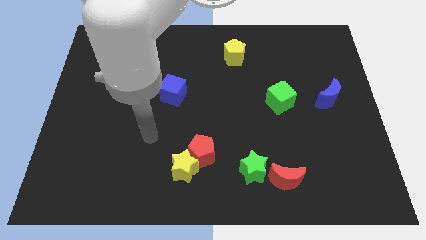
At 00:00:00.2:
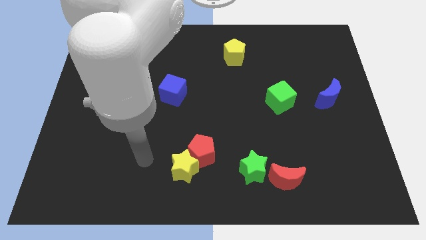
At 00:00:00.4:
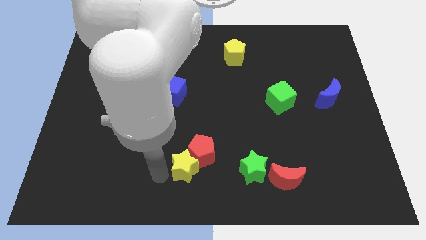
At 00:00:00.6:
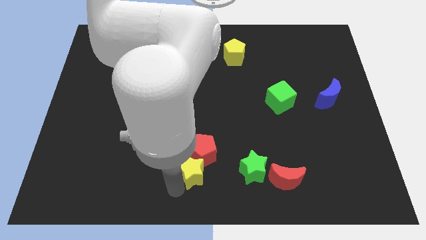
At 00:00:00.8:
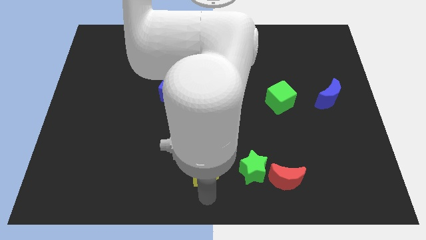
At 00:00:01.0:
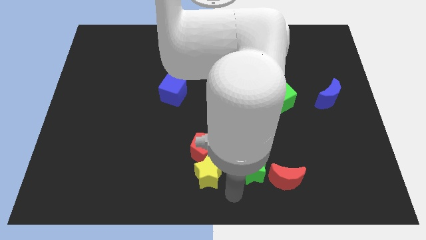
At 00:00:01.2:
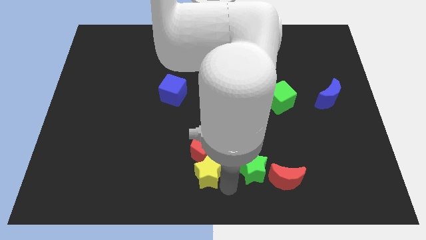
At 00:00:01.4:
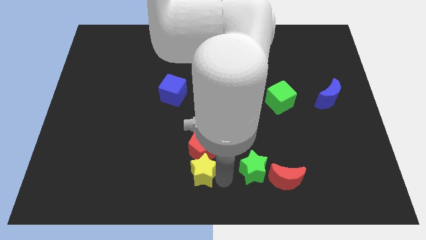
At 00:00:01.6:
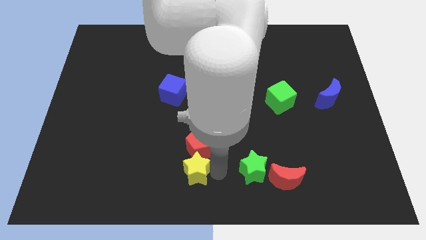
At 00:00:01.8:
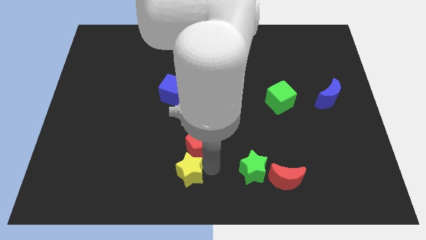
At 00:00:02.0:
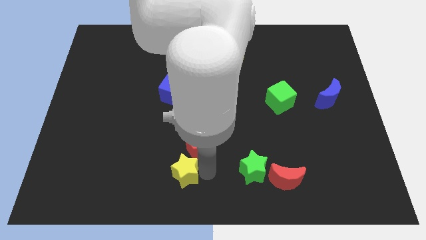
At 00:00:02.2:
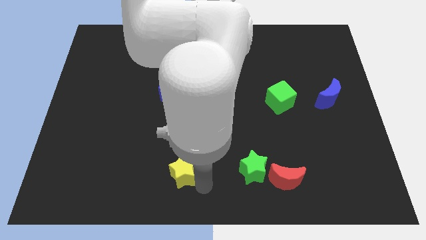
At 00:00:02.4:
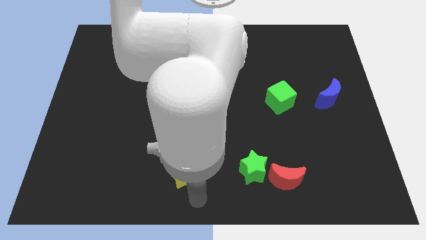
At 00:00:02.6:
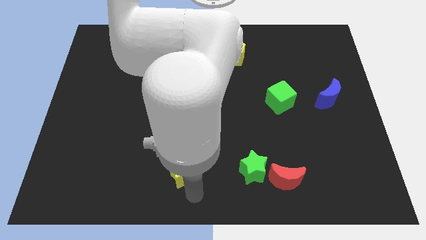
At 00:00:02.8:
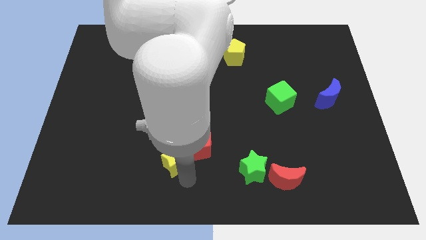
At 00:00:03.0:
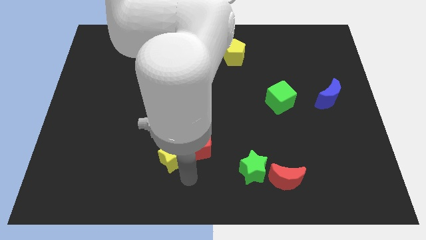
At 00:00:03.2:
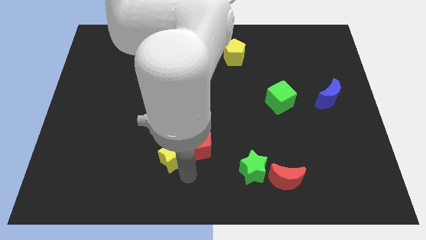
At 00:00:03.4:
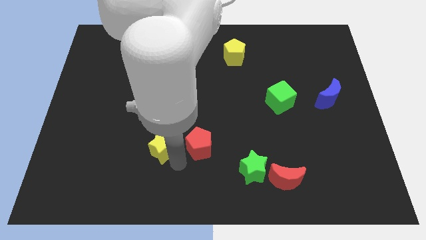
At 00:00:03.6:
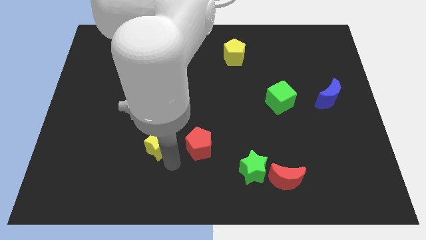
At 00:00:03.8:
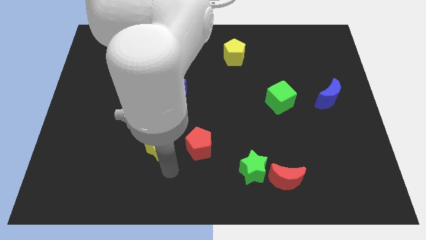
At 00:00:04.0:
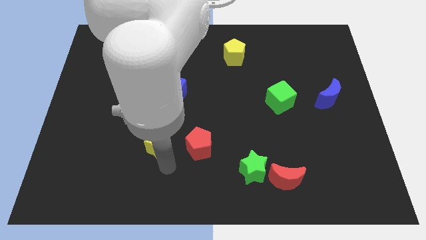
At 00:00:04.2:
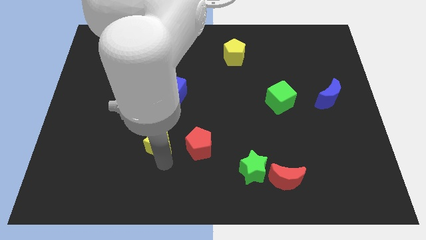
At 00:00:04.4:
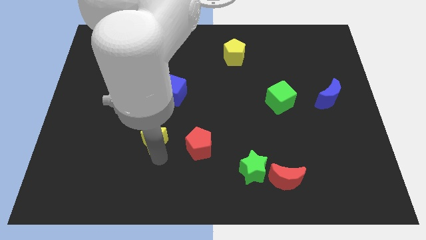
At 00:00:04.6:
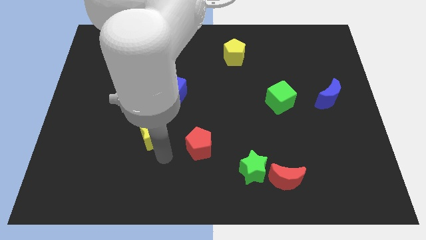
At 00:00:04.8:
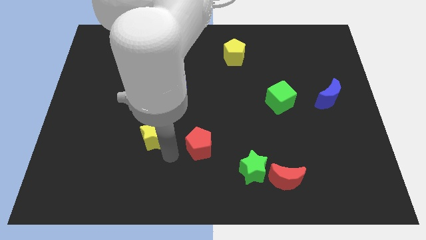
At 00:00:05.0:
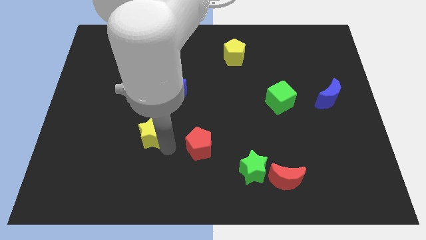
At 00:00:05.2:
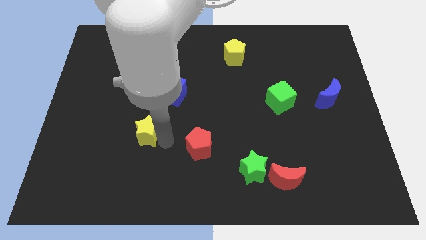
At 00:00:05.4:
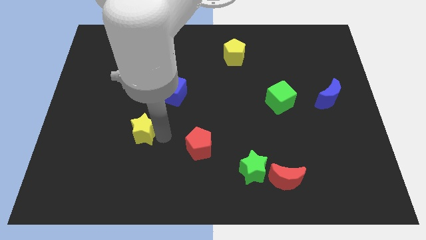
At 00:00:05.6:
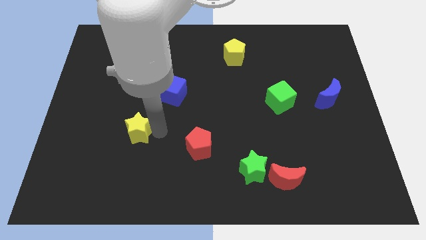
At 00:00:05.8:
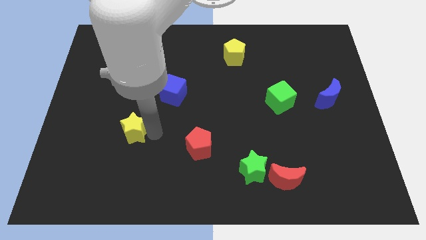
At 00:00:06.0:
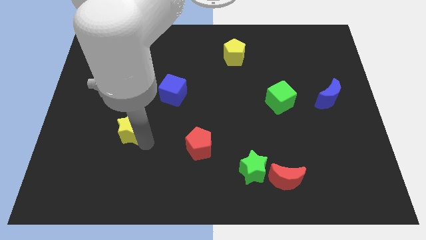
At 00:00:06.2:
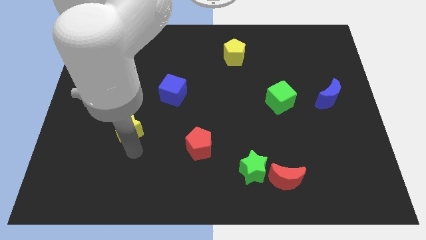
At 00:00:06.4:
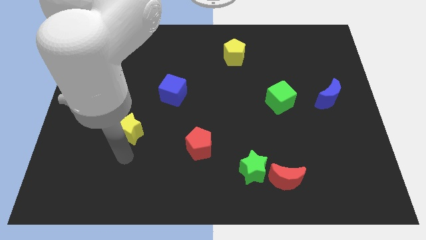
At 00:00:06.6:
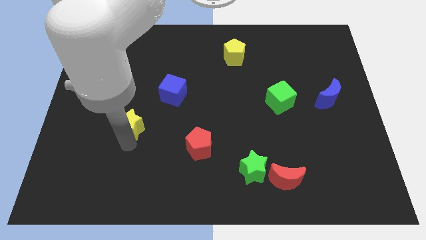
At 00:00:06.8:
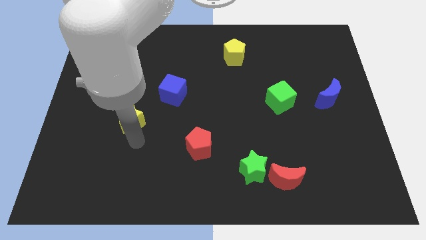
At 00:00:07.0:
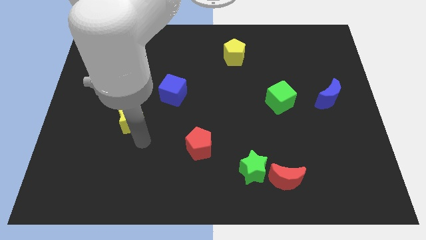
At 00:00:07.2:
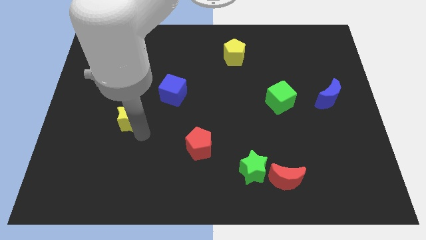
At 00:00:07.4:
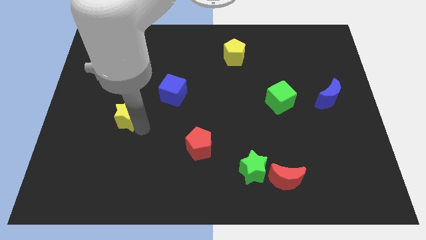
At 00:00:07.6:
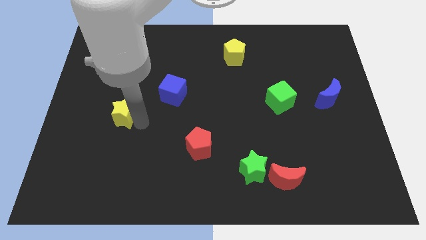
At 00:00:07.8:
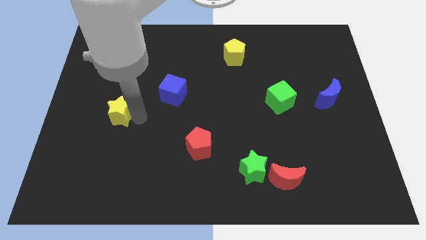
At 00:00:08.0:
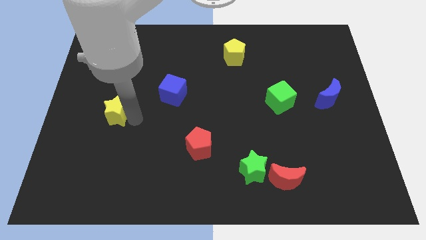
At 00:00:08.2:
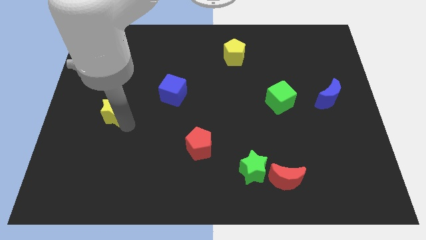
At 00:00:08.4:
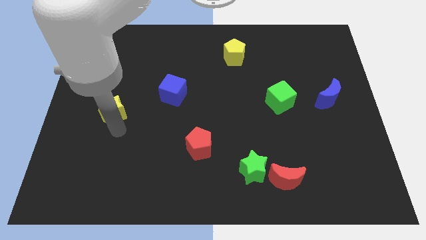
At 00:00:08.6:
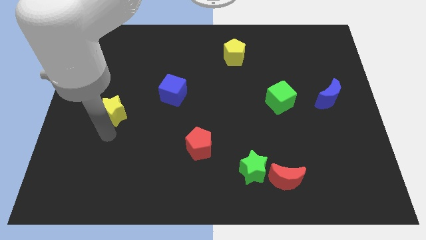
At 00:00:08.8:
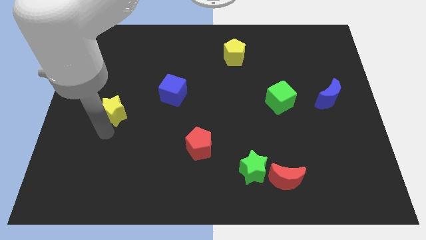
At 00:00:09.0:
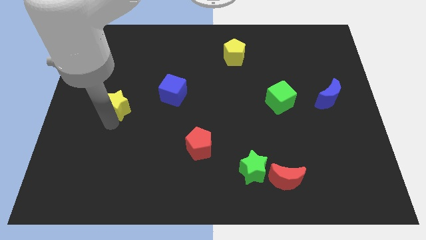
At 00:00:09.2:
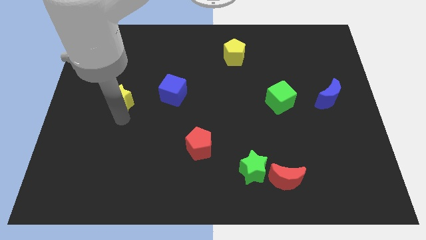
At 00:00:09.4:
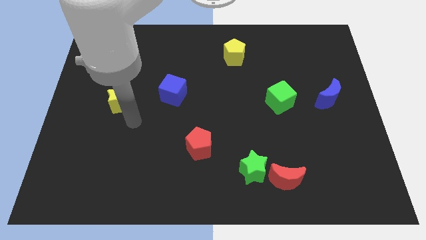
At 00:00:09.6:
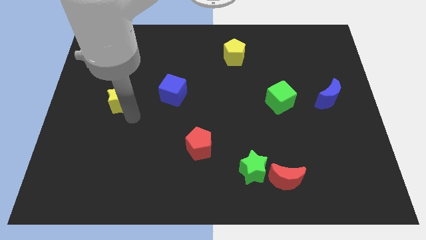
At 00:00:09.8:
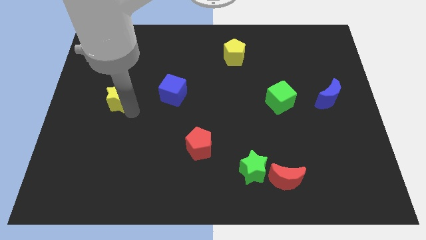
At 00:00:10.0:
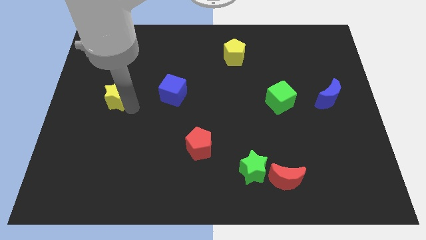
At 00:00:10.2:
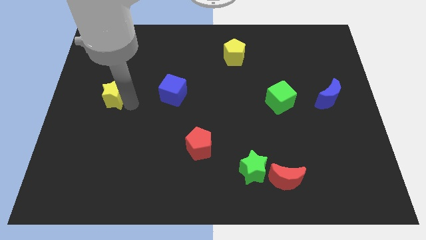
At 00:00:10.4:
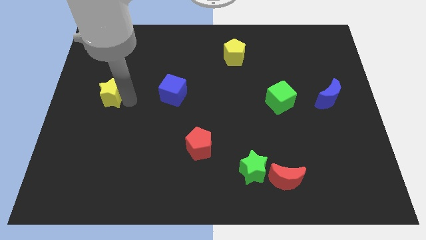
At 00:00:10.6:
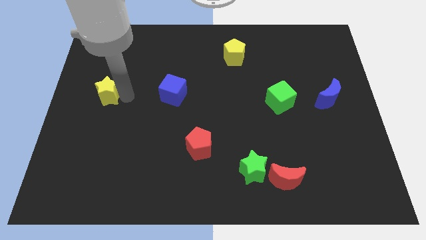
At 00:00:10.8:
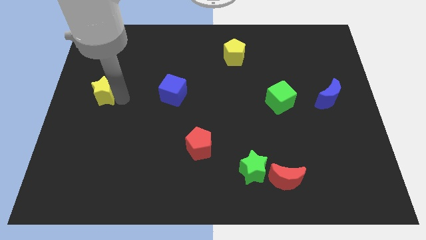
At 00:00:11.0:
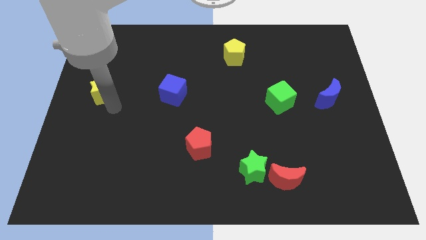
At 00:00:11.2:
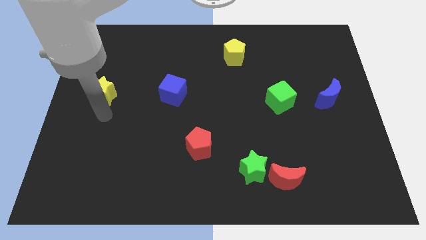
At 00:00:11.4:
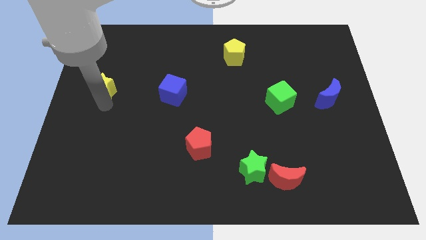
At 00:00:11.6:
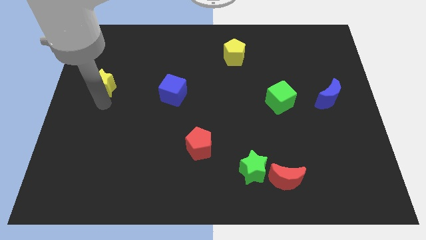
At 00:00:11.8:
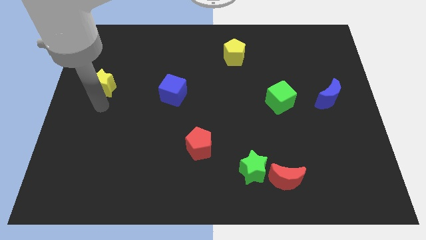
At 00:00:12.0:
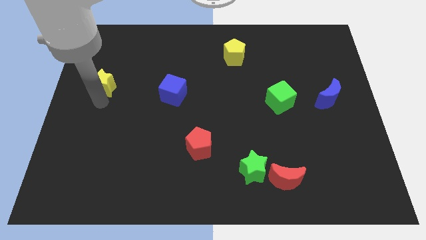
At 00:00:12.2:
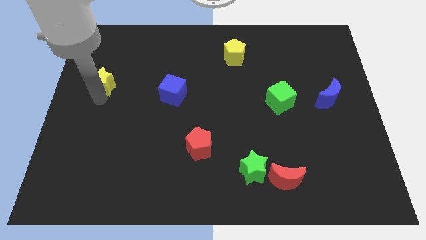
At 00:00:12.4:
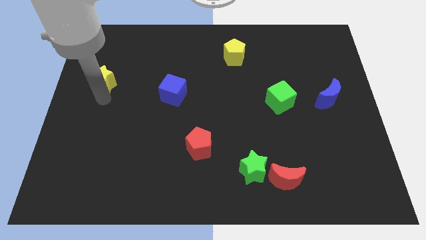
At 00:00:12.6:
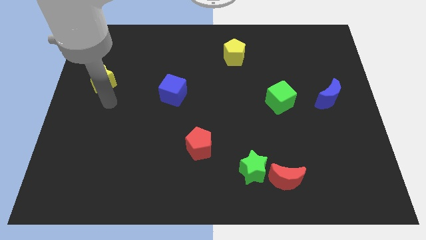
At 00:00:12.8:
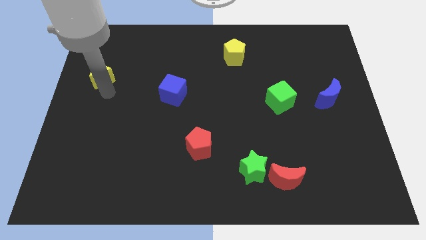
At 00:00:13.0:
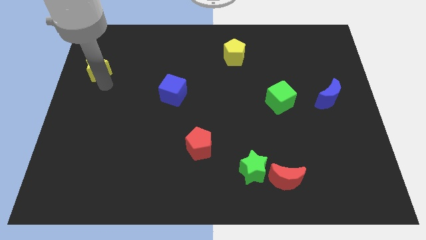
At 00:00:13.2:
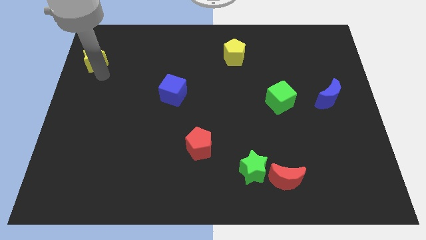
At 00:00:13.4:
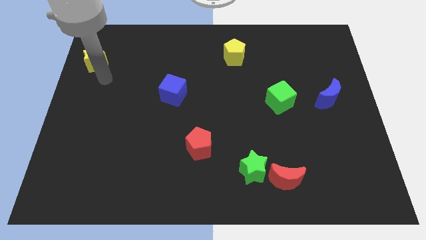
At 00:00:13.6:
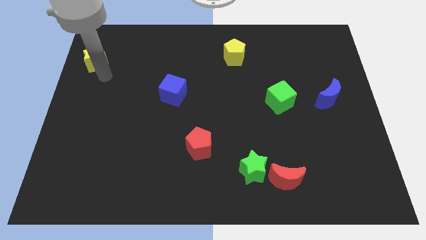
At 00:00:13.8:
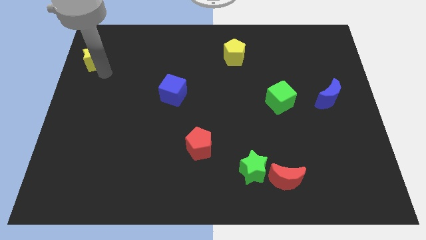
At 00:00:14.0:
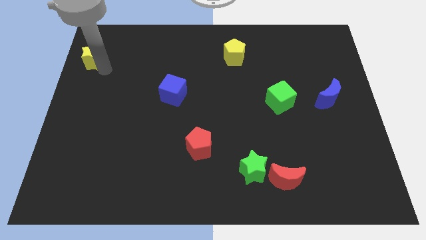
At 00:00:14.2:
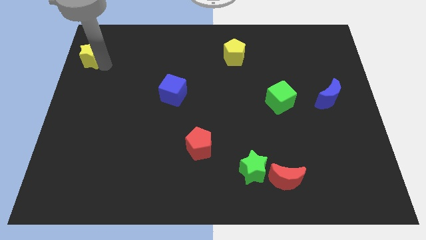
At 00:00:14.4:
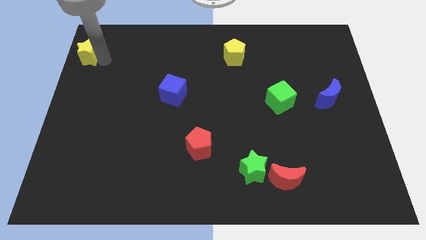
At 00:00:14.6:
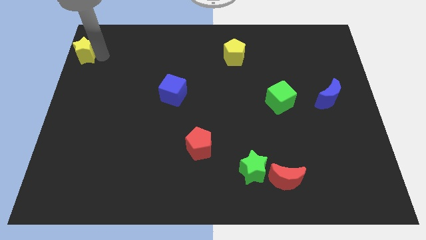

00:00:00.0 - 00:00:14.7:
move the yellow star to the upper left corner
